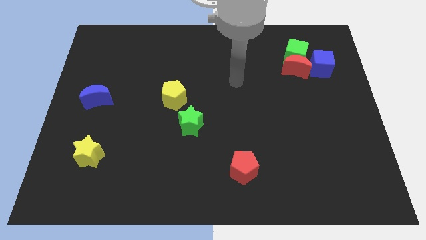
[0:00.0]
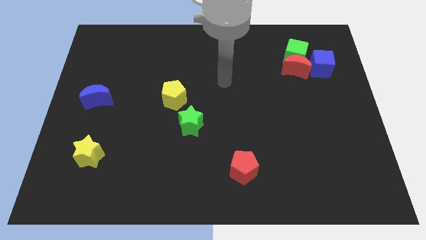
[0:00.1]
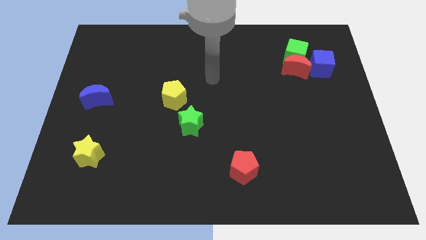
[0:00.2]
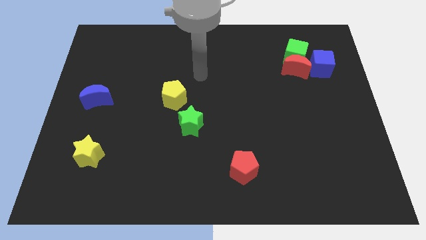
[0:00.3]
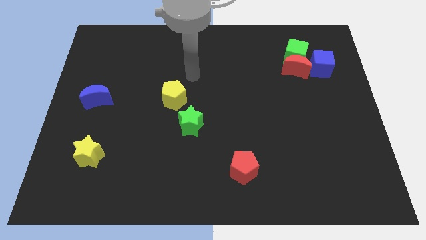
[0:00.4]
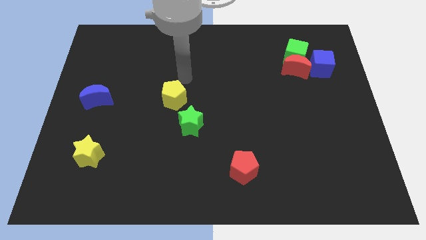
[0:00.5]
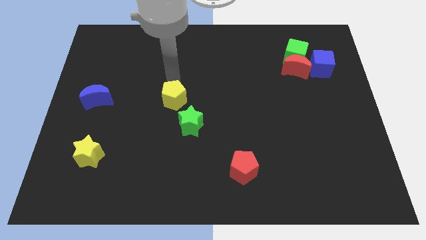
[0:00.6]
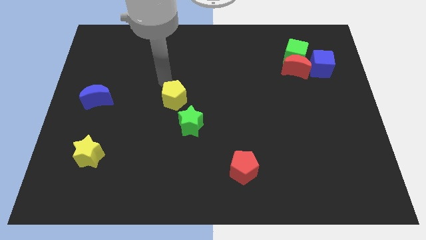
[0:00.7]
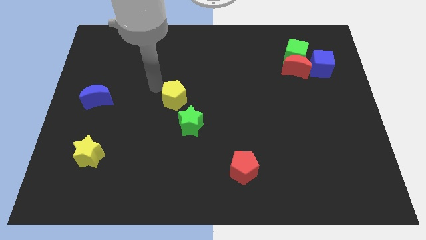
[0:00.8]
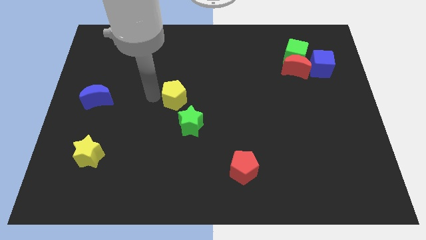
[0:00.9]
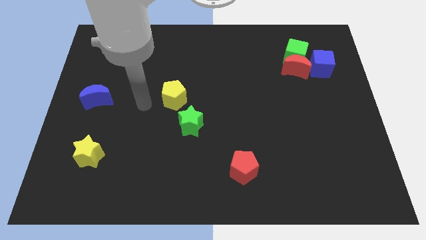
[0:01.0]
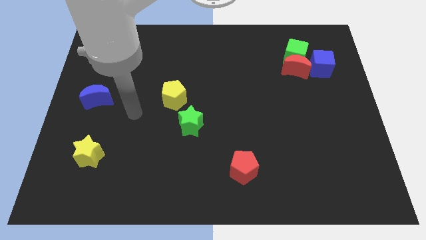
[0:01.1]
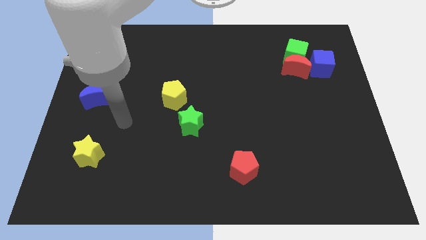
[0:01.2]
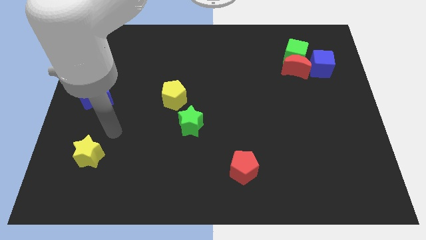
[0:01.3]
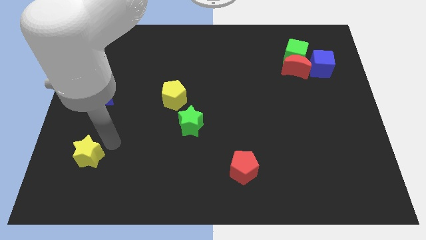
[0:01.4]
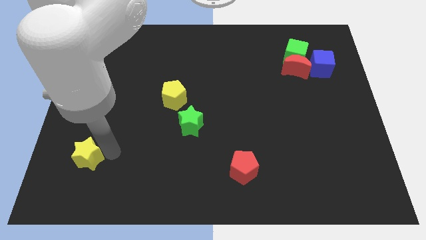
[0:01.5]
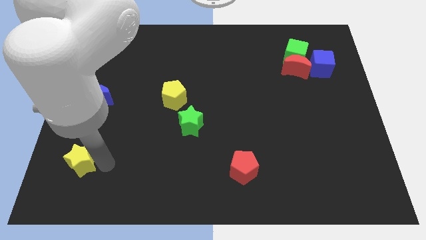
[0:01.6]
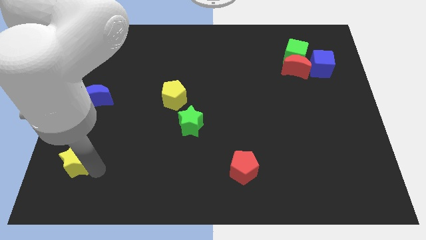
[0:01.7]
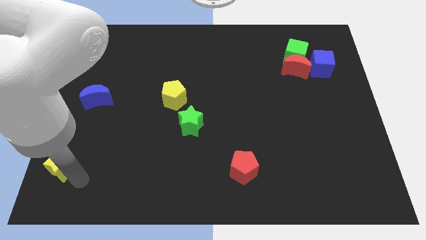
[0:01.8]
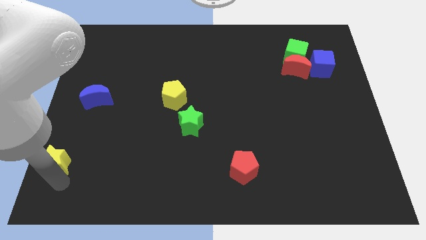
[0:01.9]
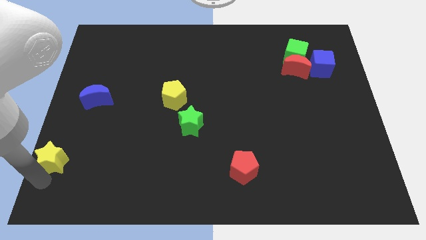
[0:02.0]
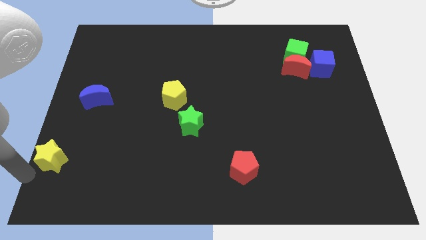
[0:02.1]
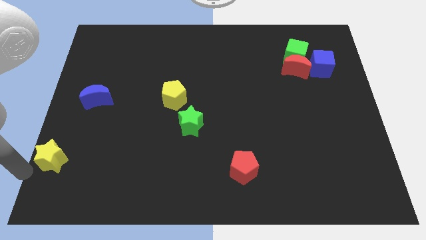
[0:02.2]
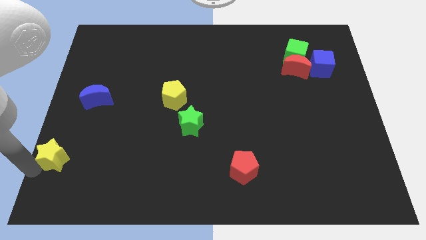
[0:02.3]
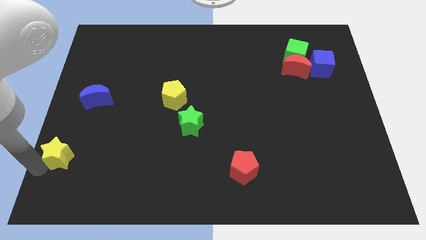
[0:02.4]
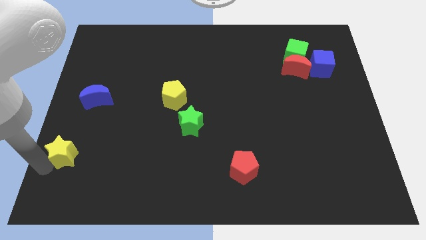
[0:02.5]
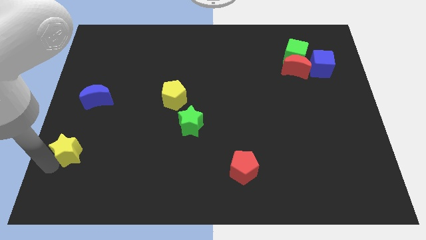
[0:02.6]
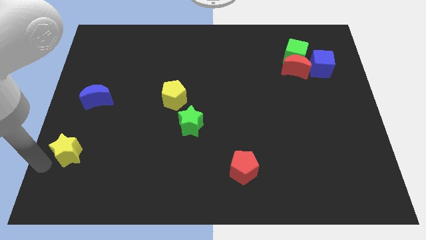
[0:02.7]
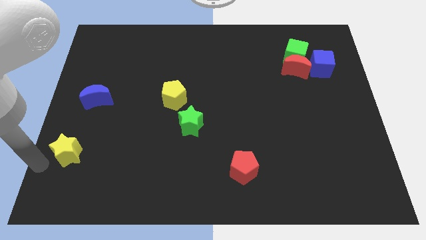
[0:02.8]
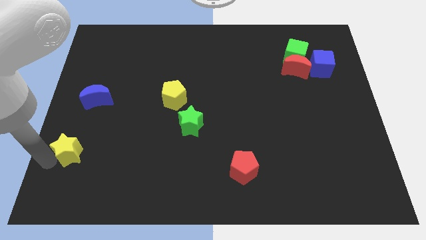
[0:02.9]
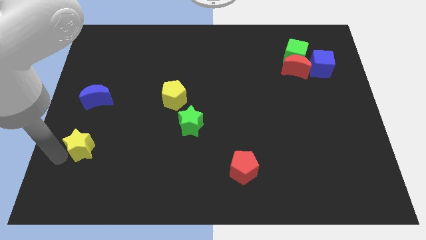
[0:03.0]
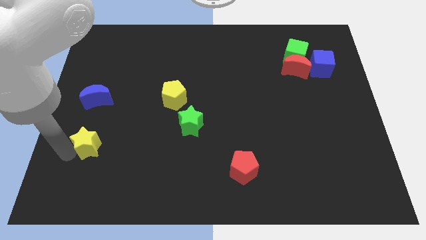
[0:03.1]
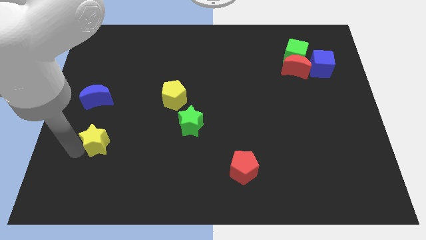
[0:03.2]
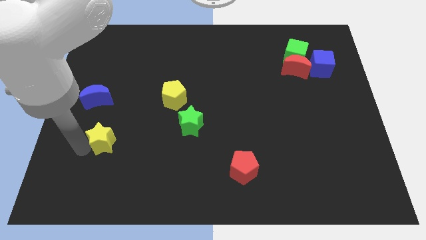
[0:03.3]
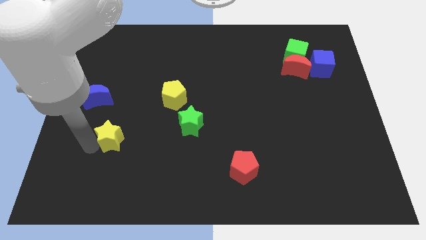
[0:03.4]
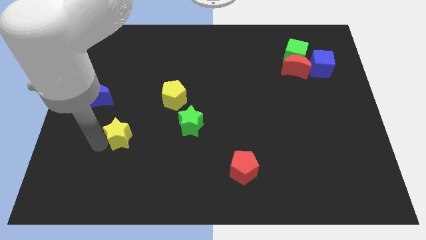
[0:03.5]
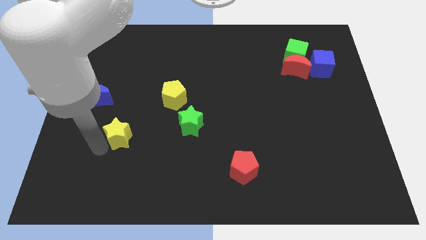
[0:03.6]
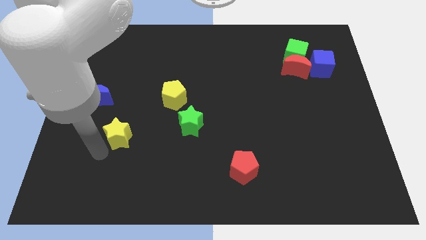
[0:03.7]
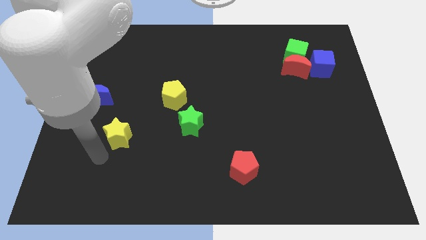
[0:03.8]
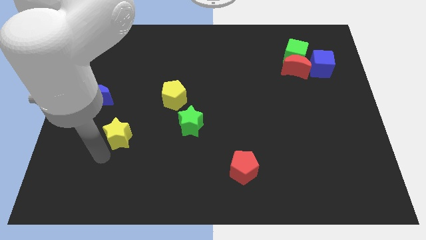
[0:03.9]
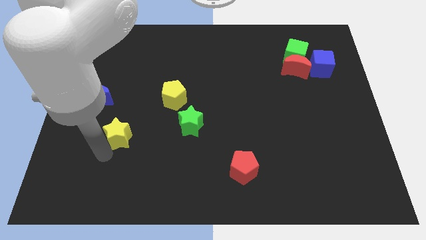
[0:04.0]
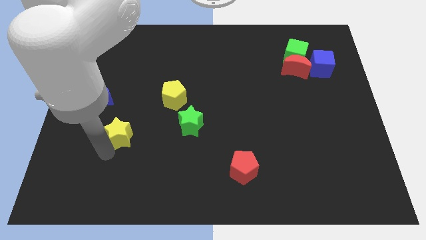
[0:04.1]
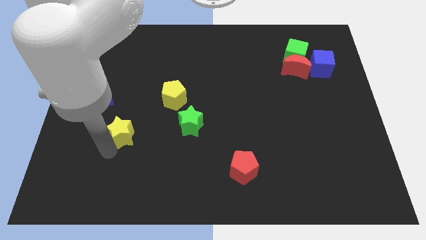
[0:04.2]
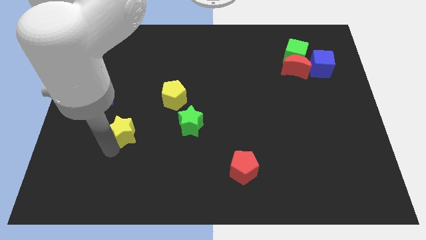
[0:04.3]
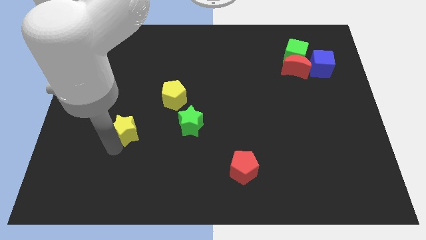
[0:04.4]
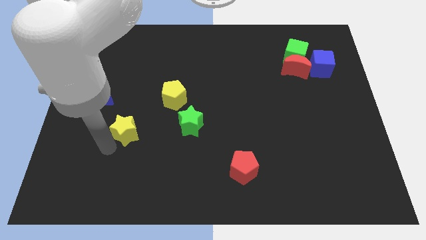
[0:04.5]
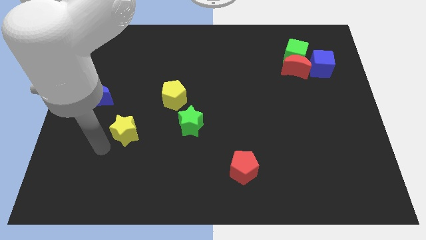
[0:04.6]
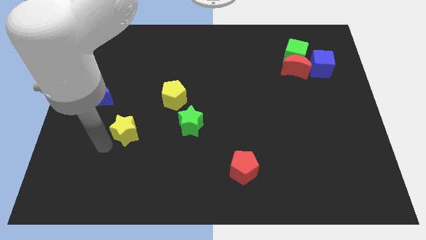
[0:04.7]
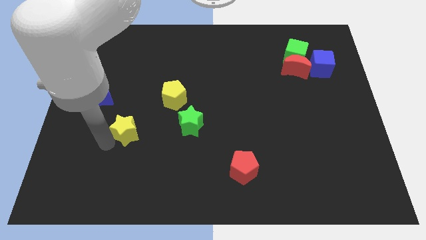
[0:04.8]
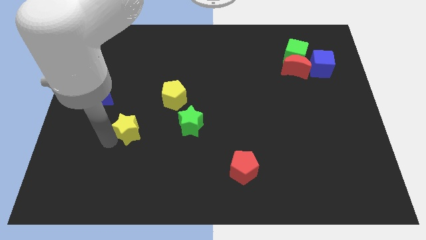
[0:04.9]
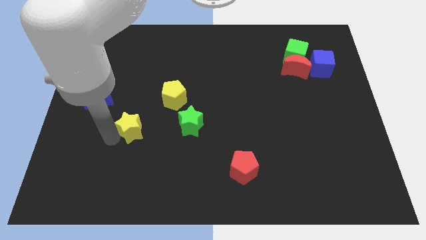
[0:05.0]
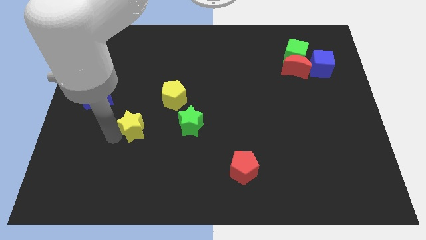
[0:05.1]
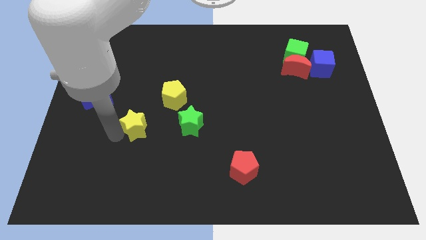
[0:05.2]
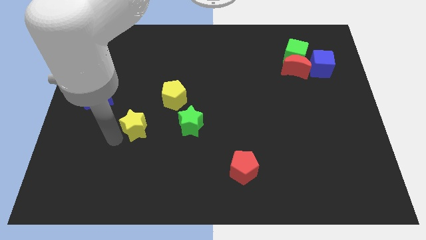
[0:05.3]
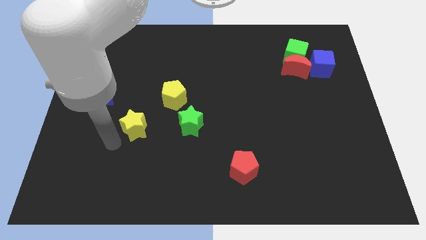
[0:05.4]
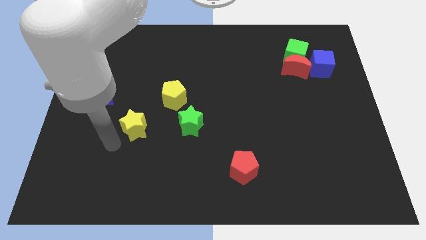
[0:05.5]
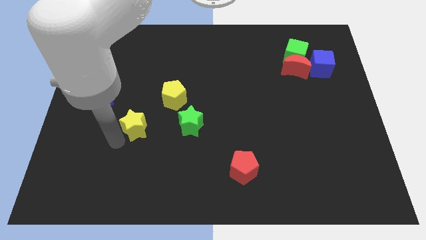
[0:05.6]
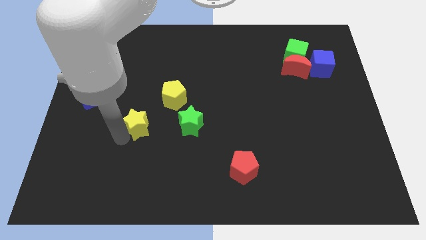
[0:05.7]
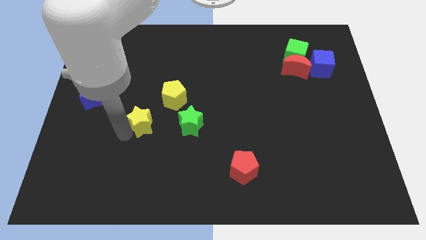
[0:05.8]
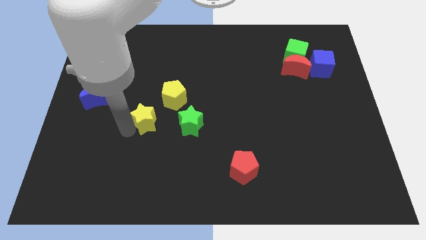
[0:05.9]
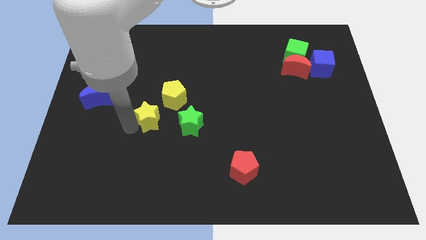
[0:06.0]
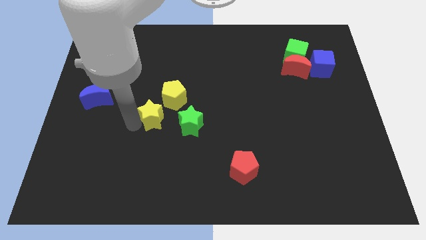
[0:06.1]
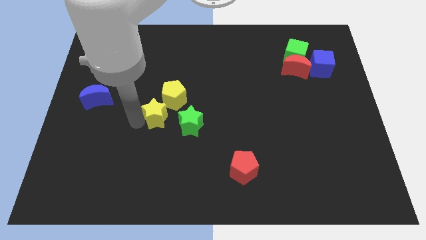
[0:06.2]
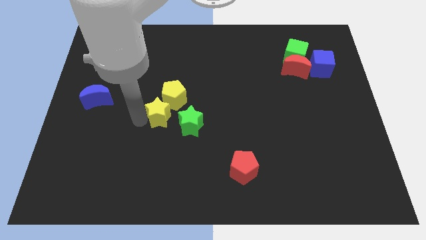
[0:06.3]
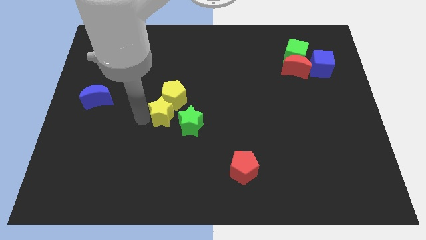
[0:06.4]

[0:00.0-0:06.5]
slide the yellow star to the center of the board
